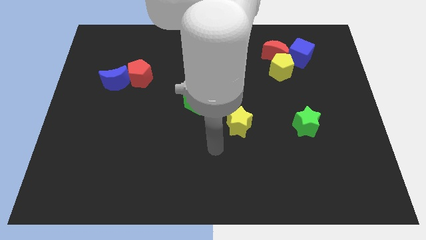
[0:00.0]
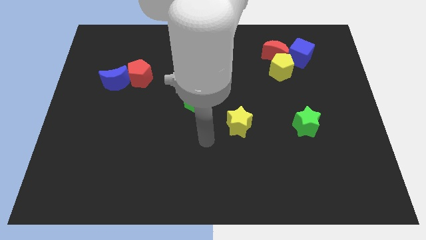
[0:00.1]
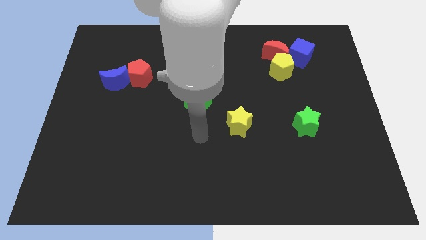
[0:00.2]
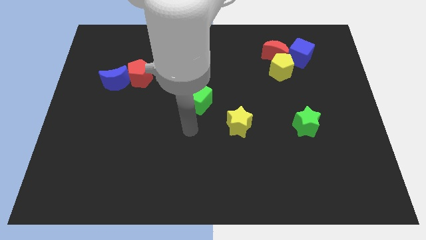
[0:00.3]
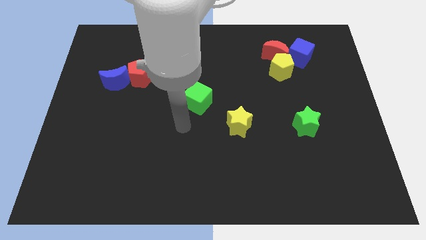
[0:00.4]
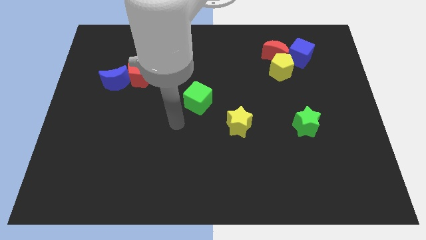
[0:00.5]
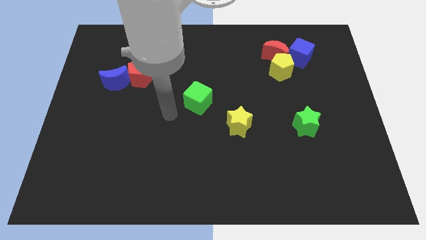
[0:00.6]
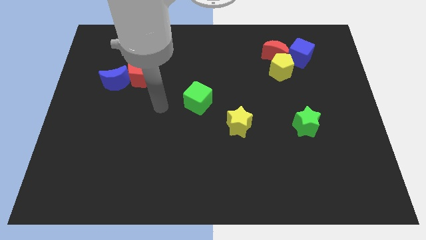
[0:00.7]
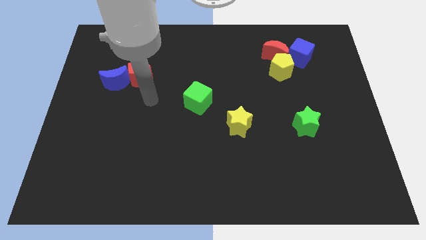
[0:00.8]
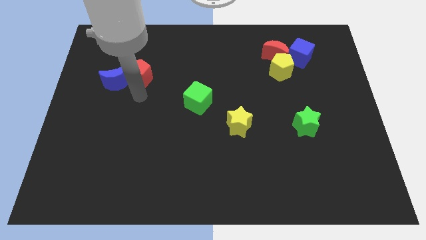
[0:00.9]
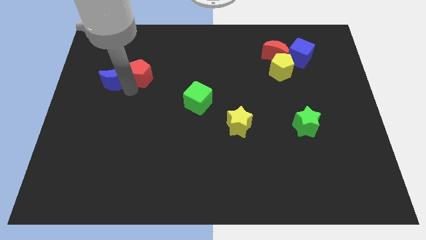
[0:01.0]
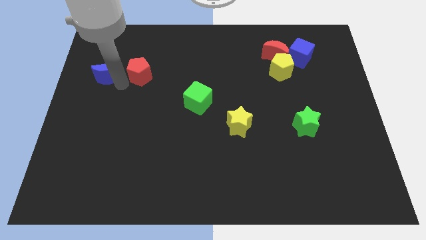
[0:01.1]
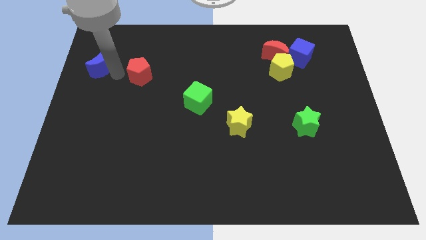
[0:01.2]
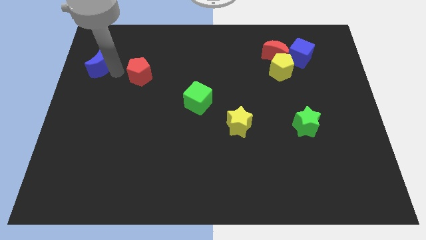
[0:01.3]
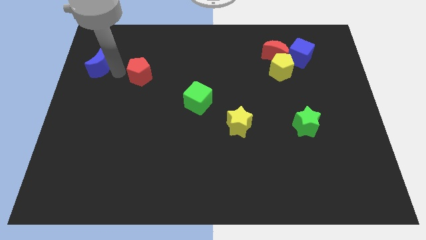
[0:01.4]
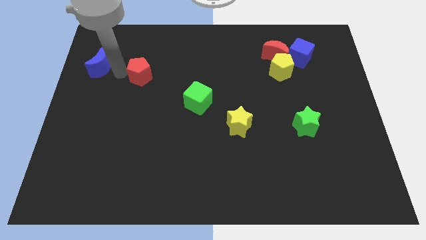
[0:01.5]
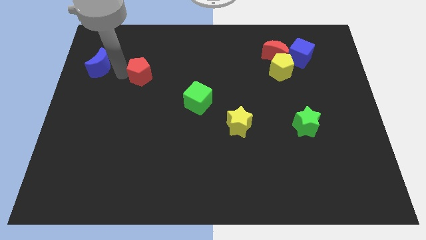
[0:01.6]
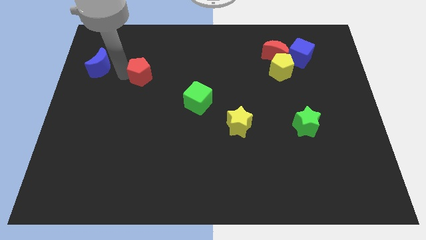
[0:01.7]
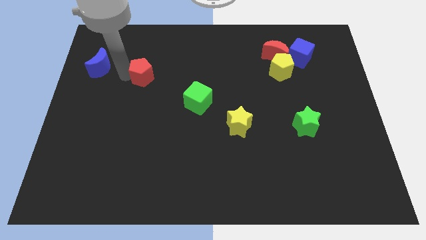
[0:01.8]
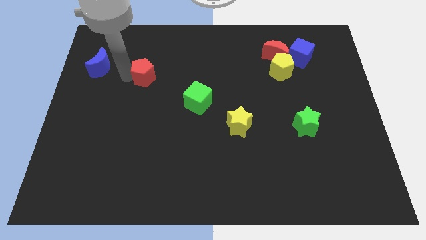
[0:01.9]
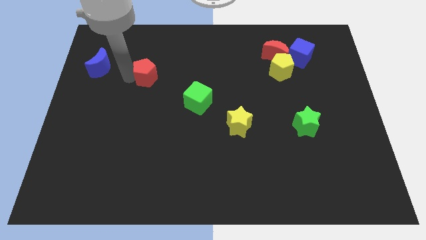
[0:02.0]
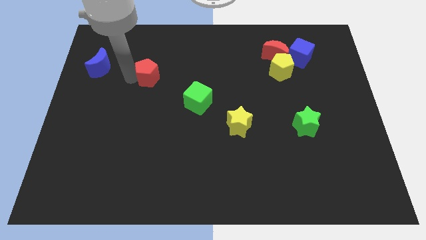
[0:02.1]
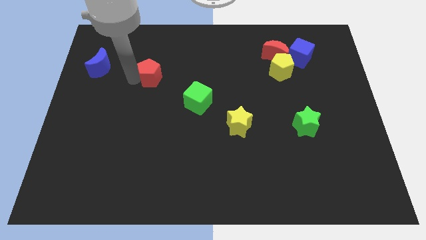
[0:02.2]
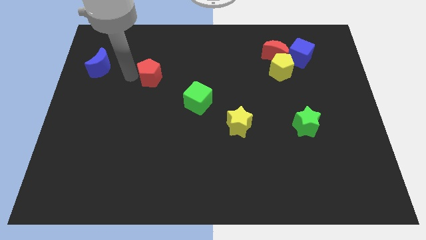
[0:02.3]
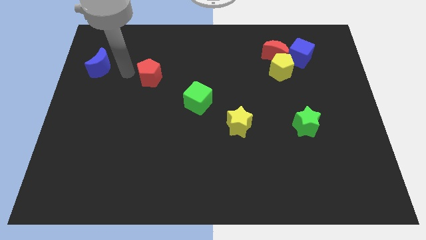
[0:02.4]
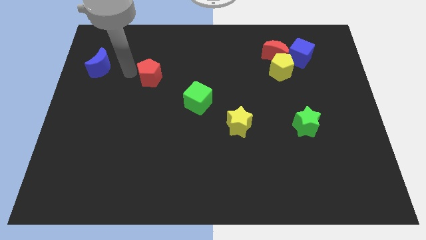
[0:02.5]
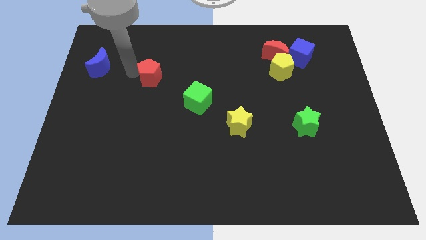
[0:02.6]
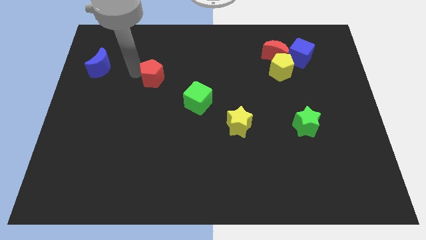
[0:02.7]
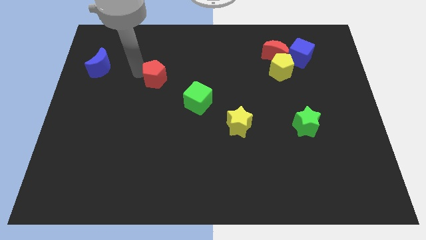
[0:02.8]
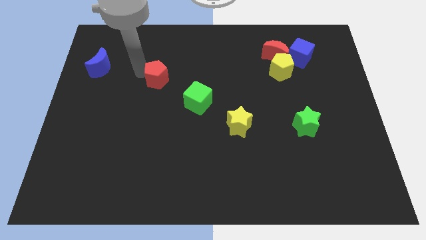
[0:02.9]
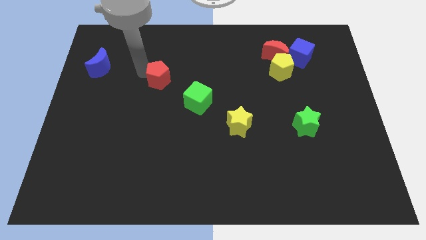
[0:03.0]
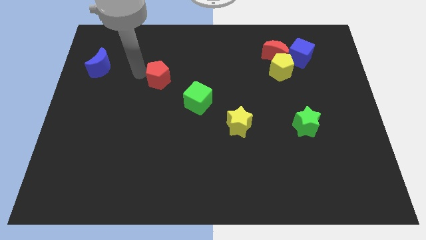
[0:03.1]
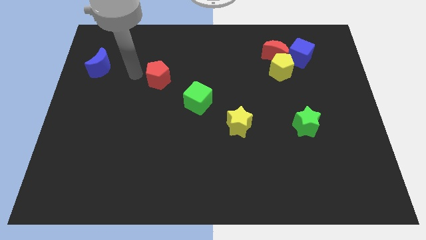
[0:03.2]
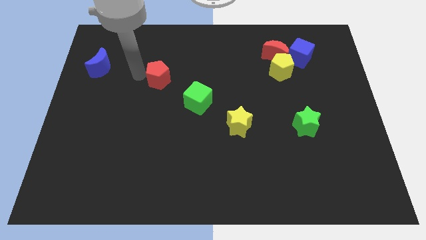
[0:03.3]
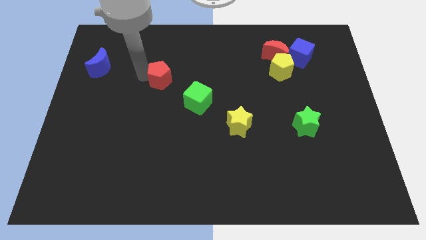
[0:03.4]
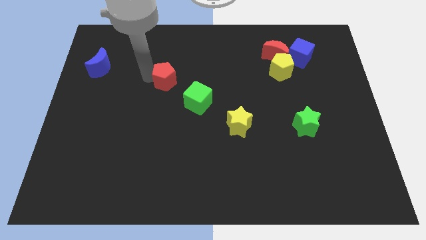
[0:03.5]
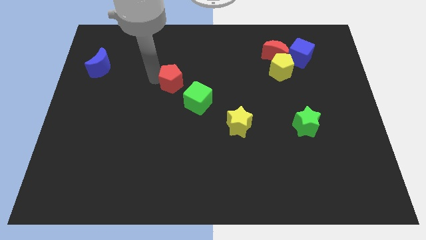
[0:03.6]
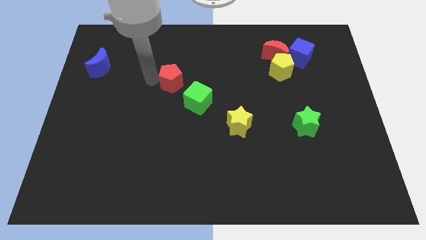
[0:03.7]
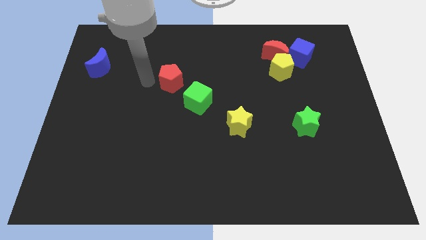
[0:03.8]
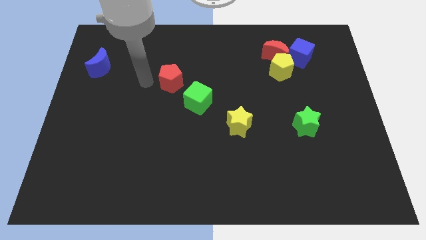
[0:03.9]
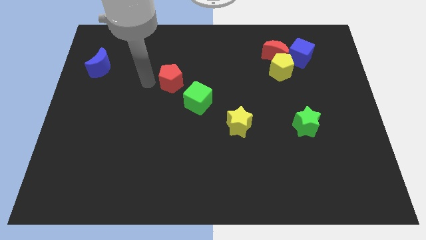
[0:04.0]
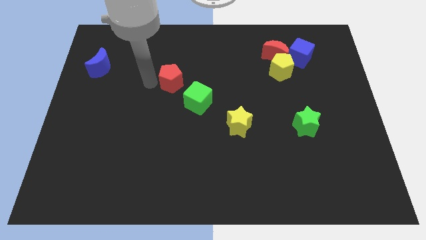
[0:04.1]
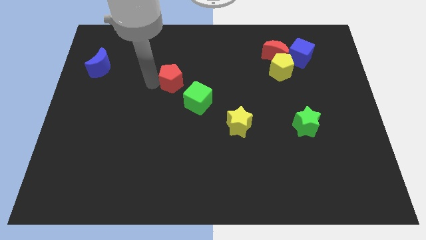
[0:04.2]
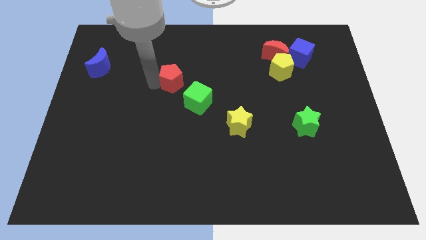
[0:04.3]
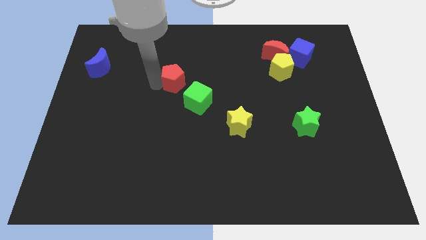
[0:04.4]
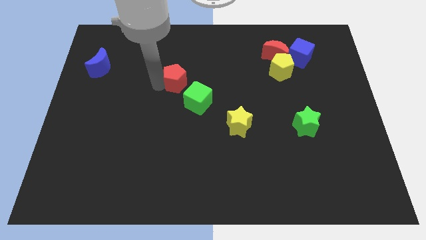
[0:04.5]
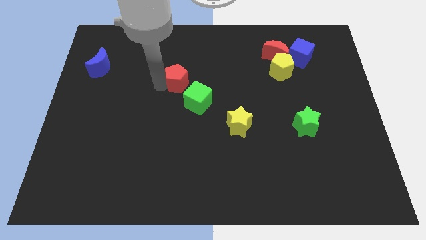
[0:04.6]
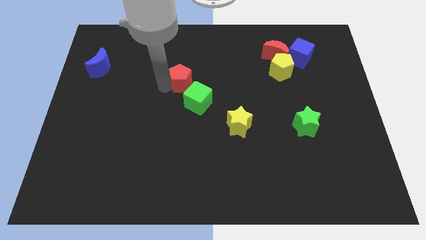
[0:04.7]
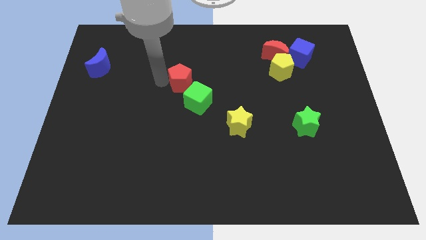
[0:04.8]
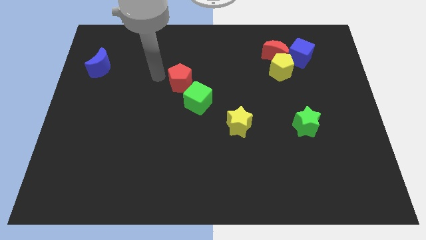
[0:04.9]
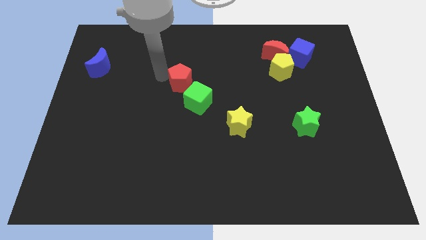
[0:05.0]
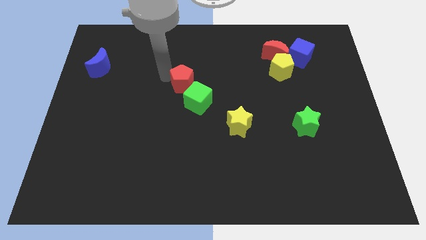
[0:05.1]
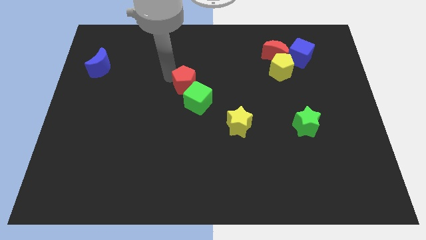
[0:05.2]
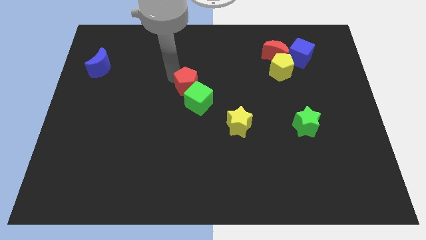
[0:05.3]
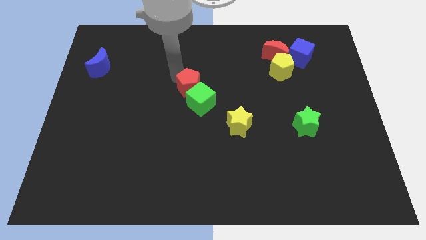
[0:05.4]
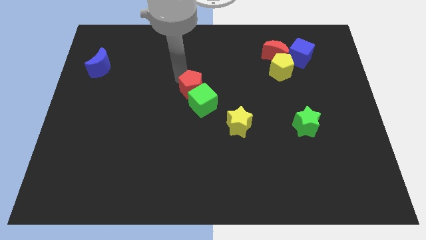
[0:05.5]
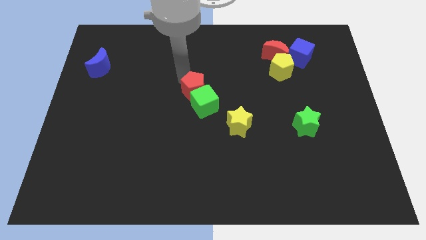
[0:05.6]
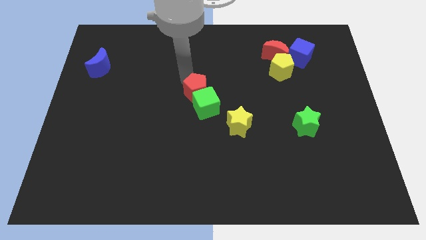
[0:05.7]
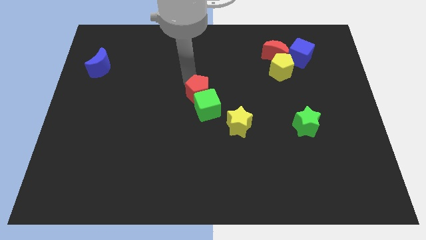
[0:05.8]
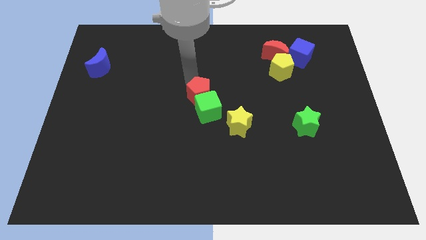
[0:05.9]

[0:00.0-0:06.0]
move the red pentagon diagonally up and to the left of the yellow star

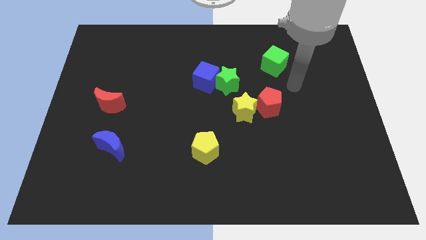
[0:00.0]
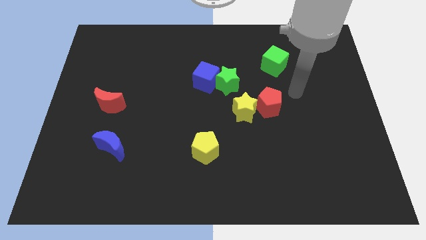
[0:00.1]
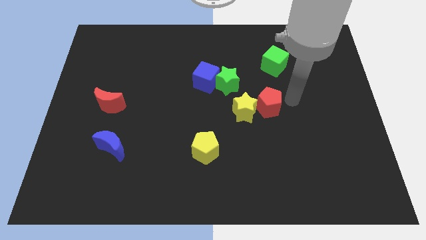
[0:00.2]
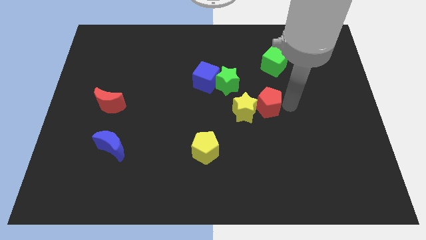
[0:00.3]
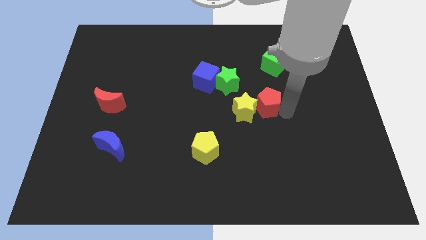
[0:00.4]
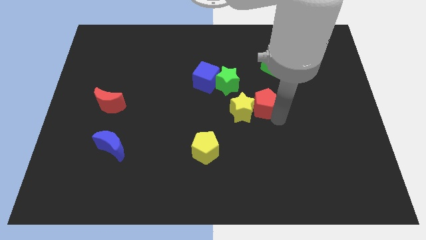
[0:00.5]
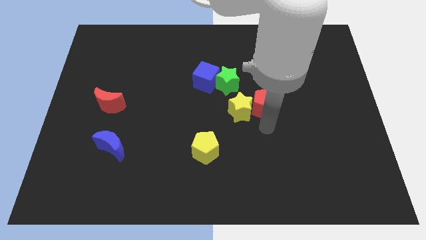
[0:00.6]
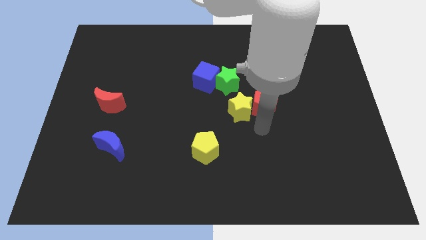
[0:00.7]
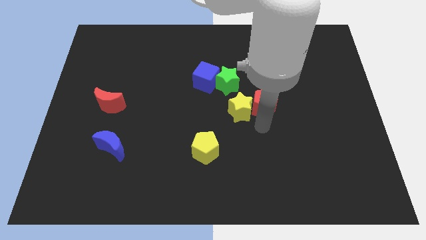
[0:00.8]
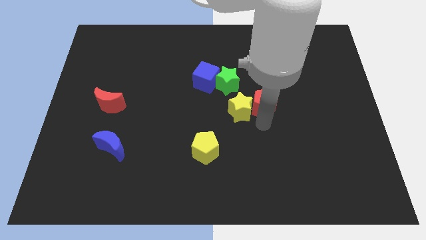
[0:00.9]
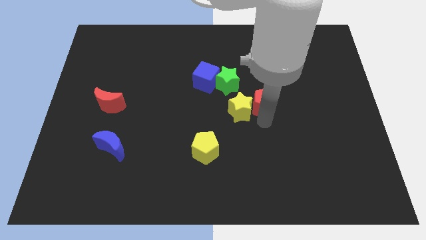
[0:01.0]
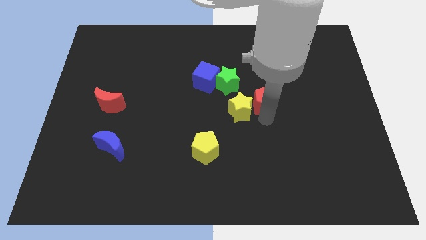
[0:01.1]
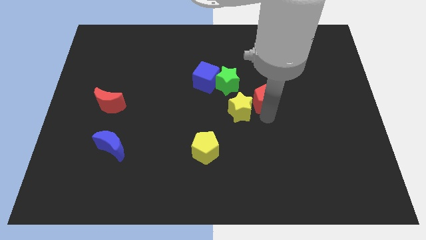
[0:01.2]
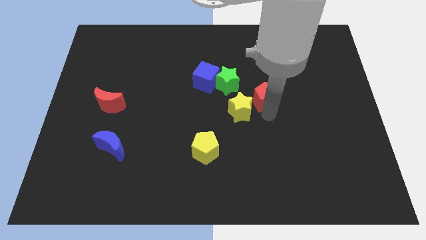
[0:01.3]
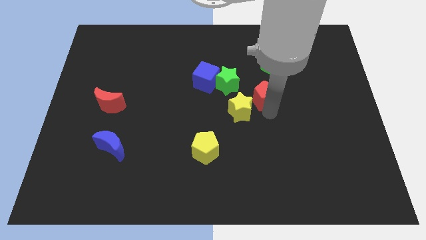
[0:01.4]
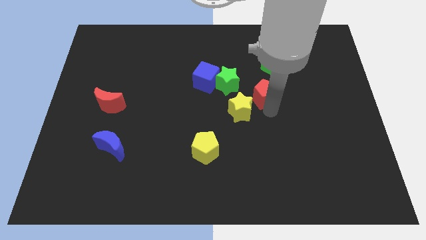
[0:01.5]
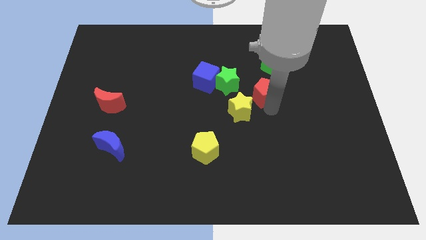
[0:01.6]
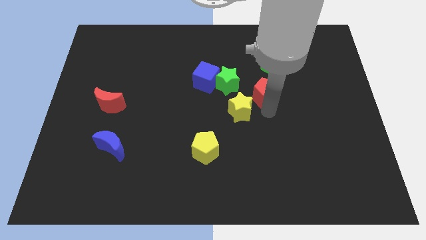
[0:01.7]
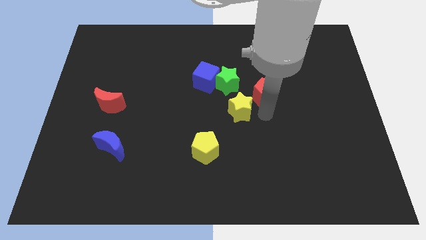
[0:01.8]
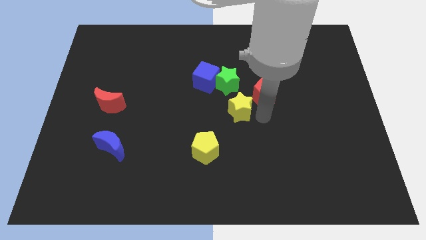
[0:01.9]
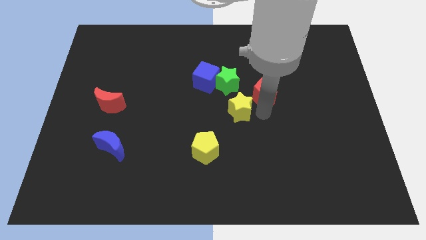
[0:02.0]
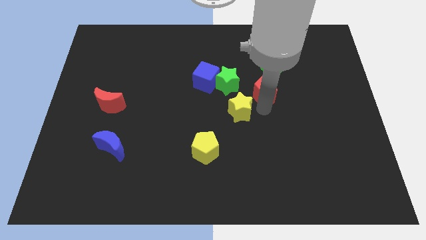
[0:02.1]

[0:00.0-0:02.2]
push the red pentagon to the bottom left side of the green cube
